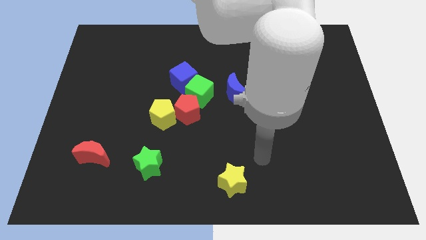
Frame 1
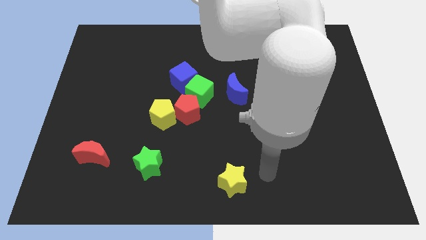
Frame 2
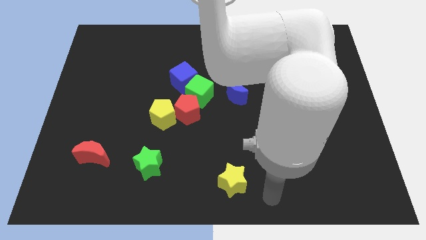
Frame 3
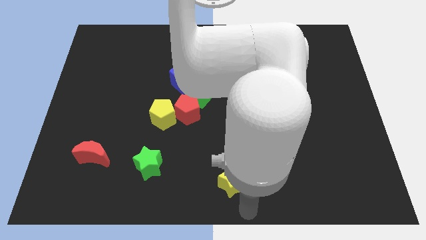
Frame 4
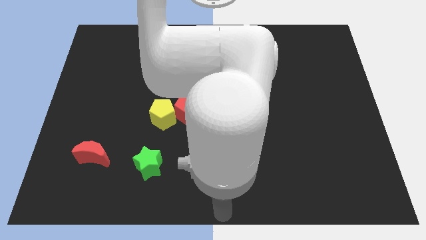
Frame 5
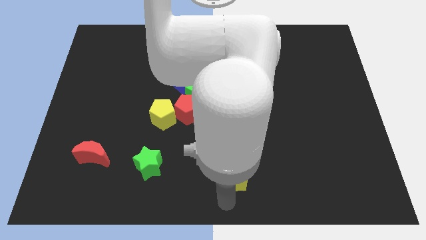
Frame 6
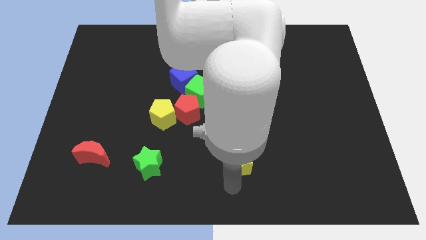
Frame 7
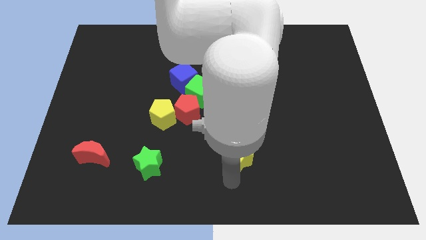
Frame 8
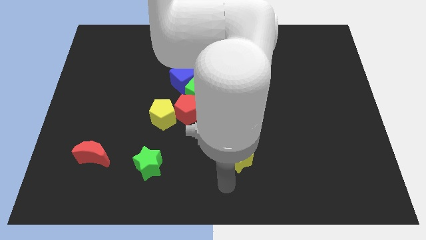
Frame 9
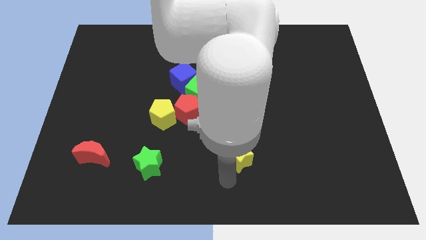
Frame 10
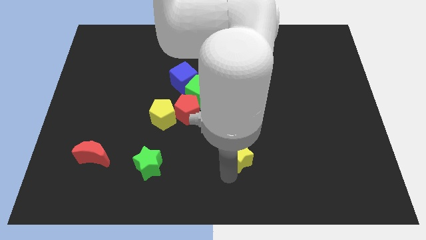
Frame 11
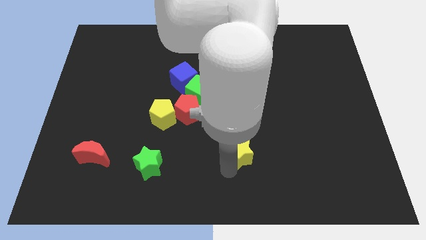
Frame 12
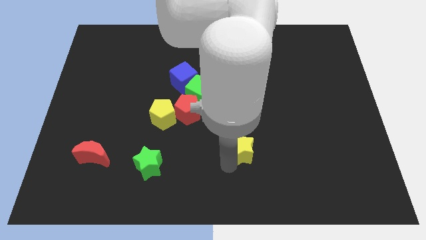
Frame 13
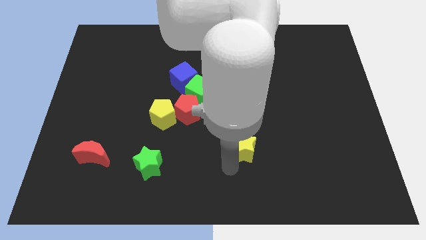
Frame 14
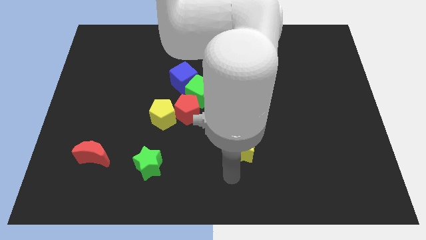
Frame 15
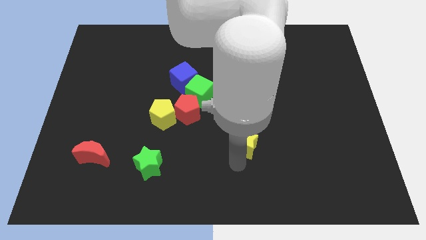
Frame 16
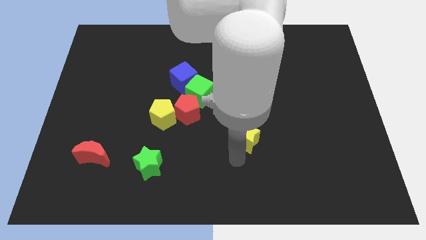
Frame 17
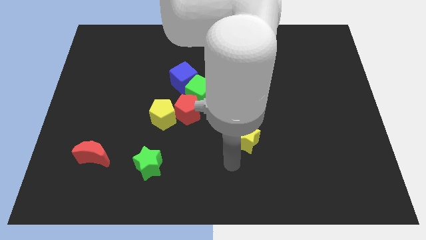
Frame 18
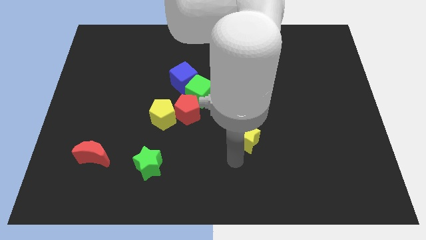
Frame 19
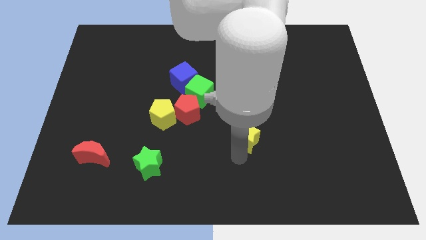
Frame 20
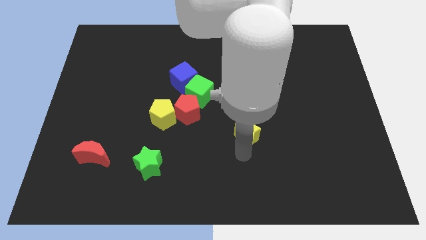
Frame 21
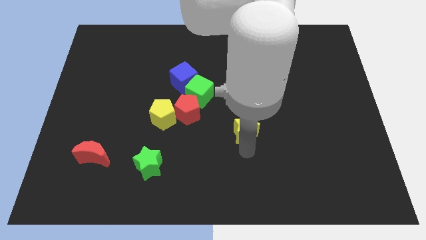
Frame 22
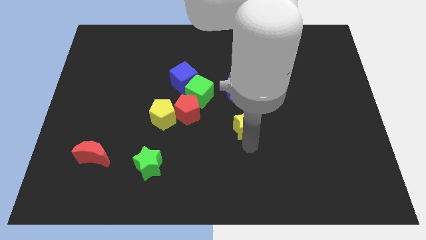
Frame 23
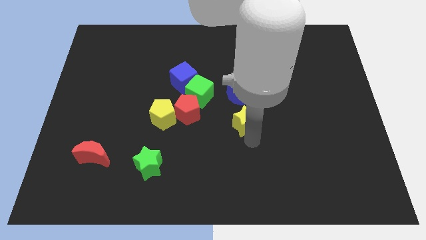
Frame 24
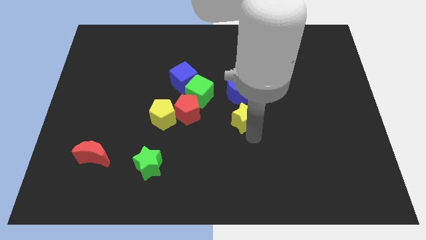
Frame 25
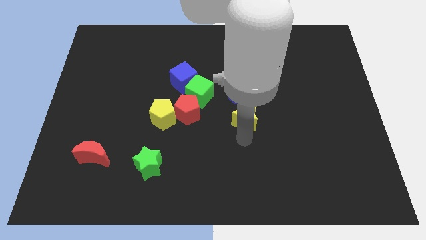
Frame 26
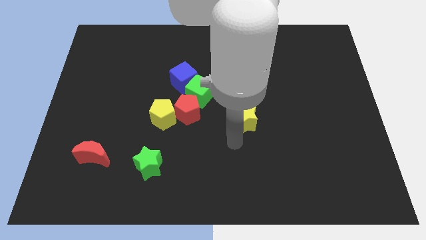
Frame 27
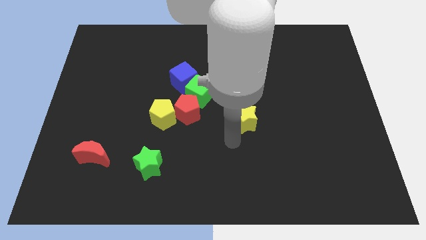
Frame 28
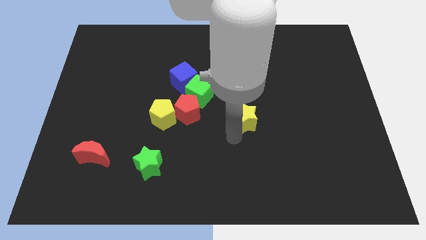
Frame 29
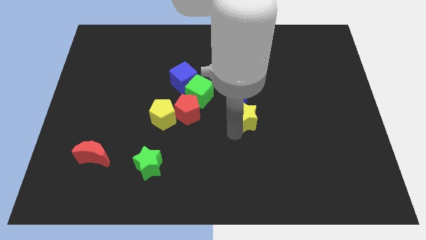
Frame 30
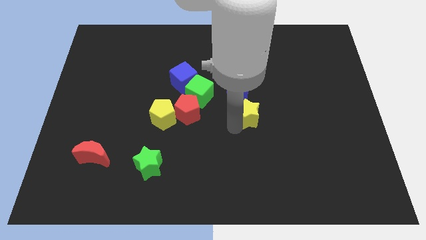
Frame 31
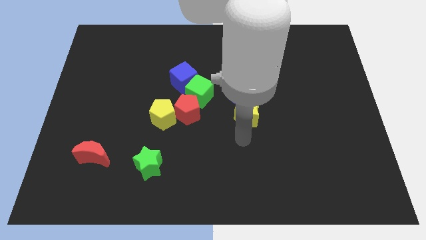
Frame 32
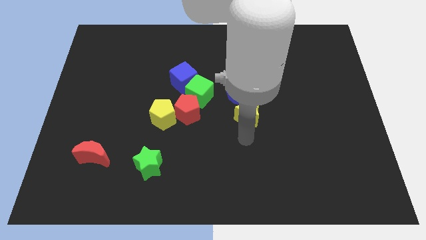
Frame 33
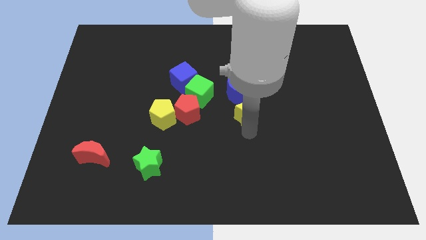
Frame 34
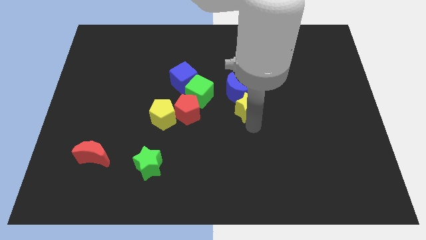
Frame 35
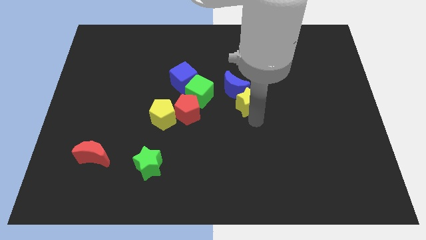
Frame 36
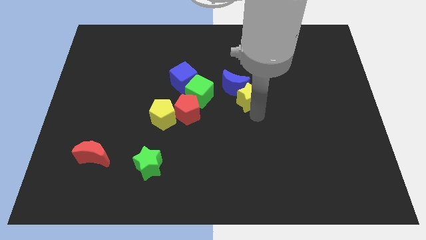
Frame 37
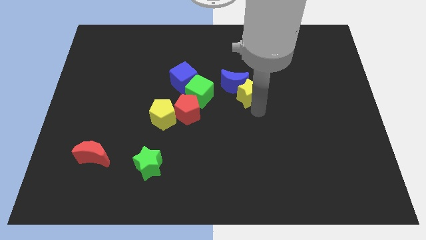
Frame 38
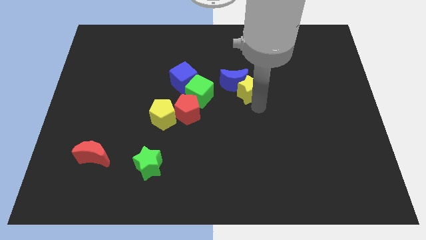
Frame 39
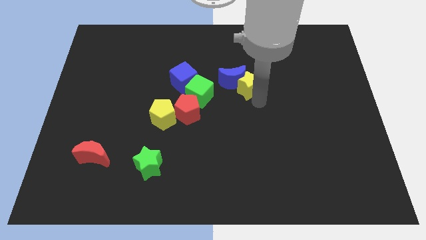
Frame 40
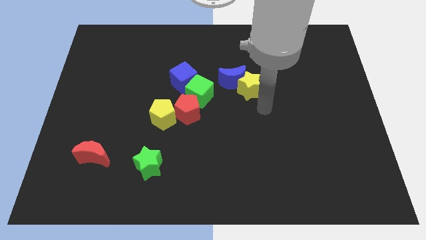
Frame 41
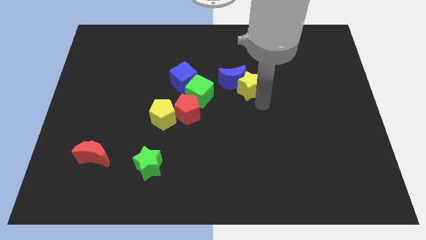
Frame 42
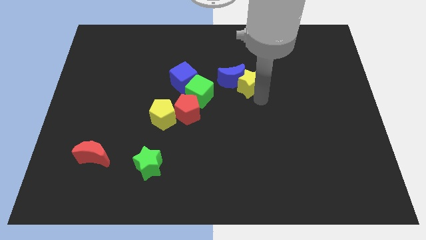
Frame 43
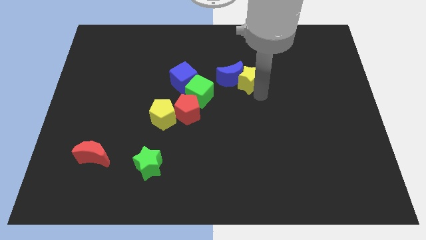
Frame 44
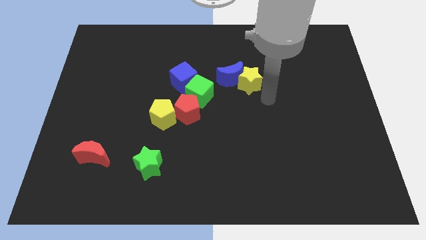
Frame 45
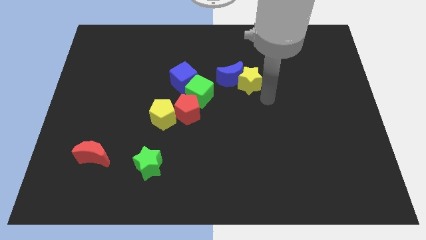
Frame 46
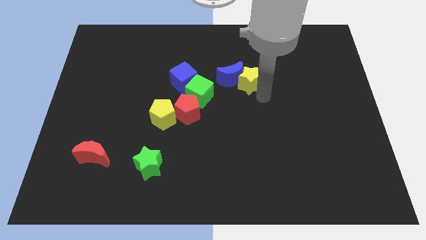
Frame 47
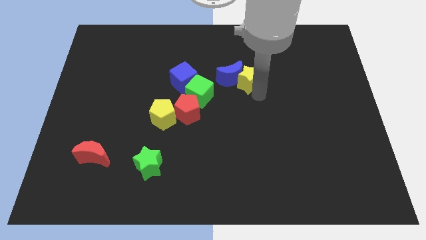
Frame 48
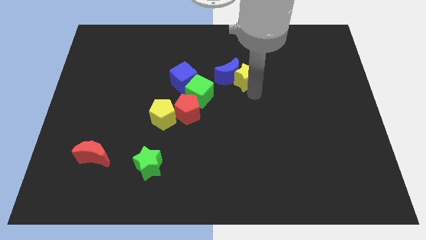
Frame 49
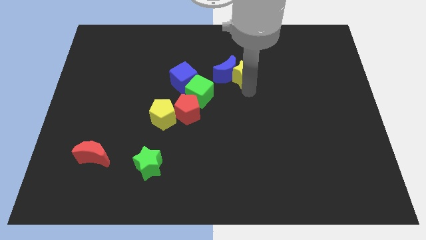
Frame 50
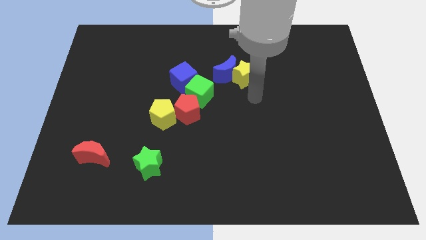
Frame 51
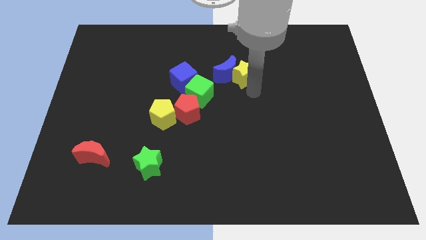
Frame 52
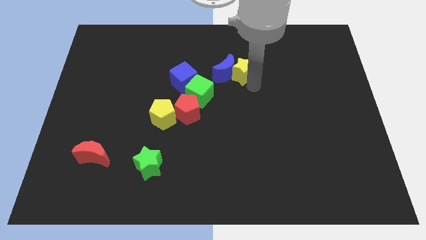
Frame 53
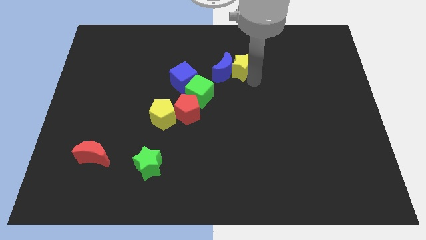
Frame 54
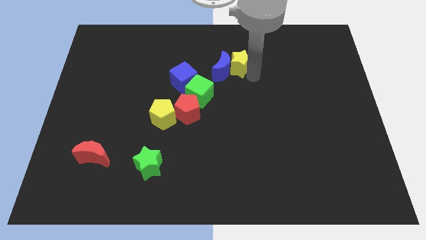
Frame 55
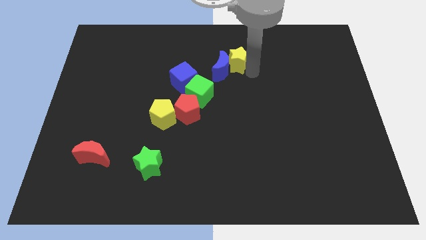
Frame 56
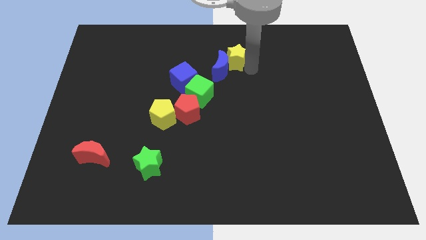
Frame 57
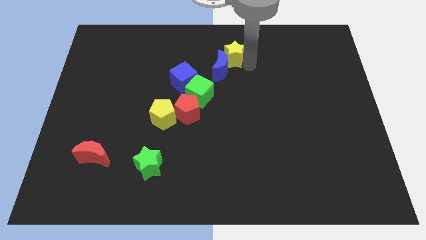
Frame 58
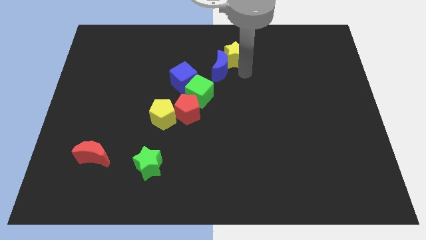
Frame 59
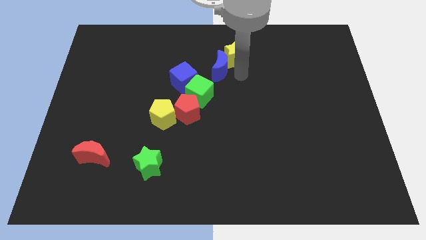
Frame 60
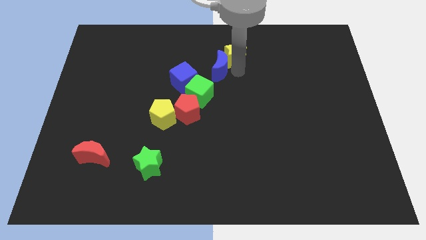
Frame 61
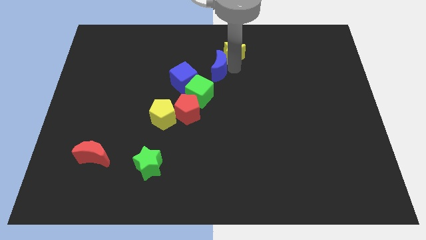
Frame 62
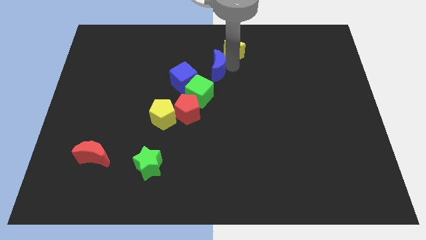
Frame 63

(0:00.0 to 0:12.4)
slide the yellow star to the towards your base
